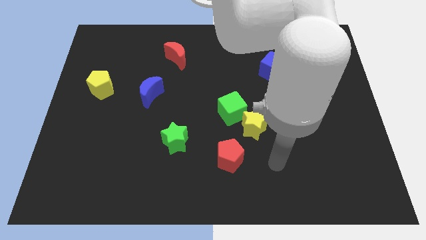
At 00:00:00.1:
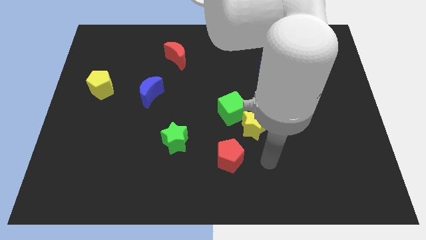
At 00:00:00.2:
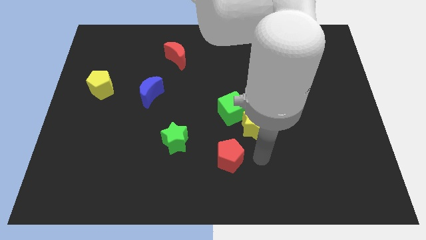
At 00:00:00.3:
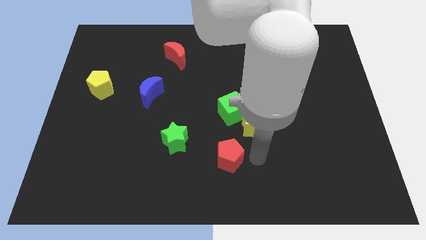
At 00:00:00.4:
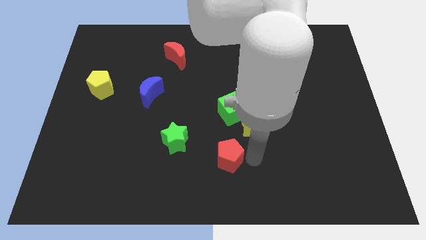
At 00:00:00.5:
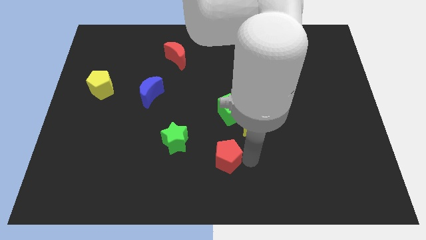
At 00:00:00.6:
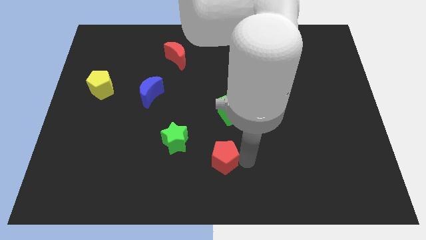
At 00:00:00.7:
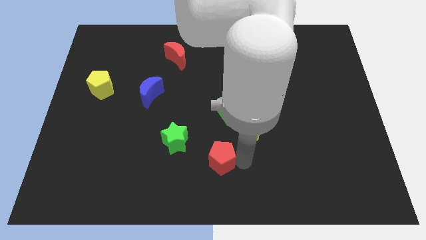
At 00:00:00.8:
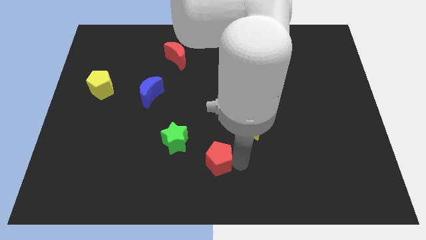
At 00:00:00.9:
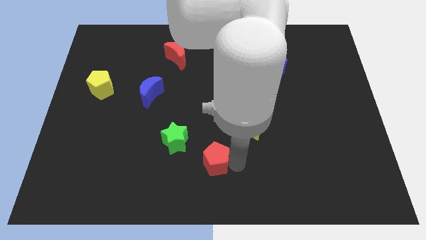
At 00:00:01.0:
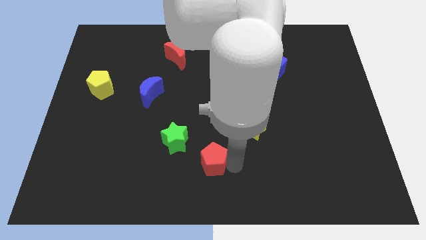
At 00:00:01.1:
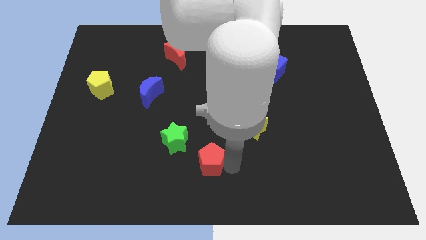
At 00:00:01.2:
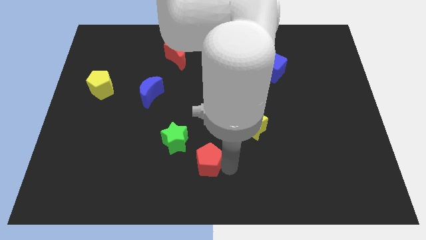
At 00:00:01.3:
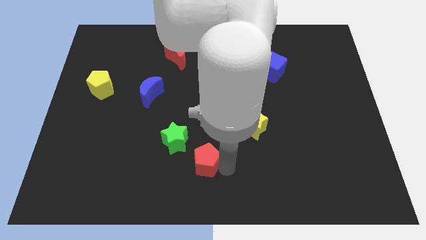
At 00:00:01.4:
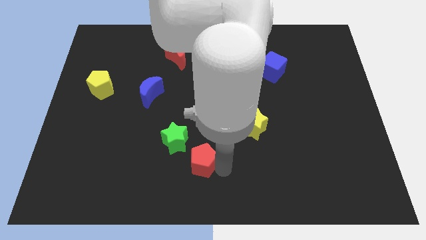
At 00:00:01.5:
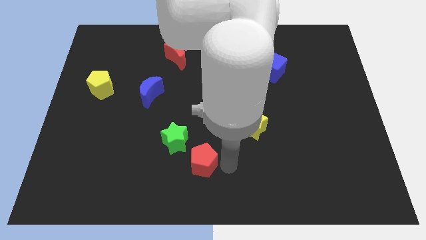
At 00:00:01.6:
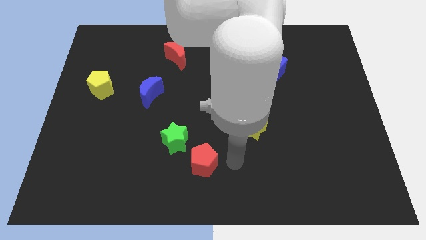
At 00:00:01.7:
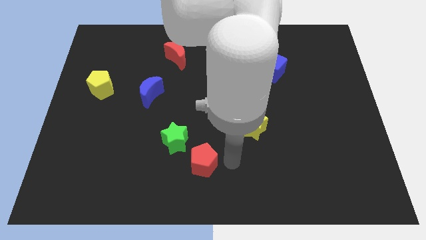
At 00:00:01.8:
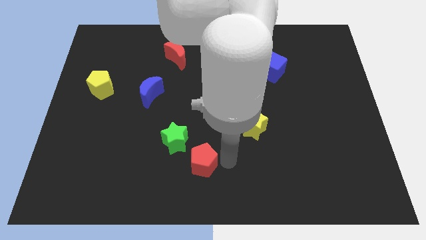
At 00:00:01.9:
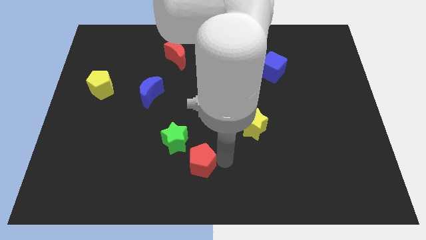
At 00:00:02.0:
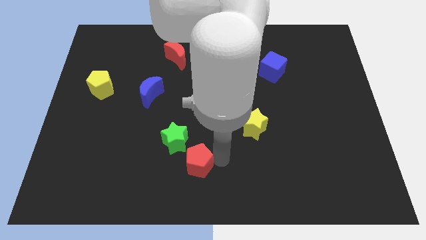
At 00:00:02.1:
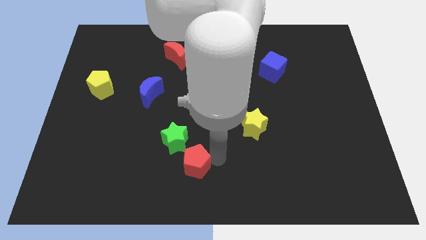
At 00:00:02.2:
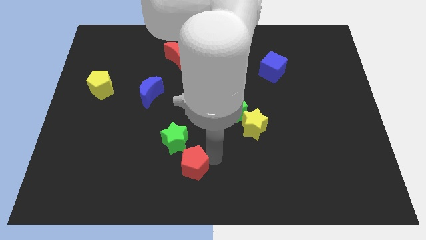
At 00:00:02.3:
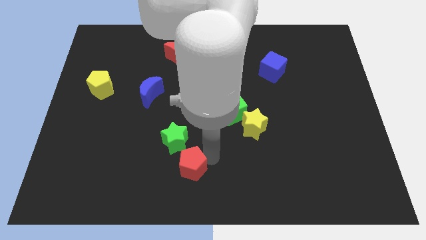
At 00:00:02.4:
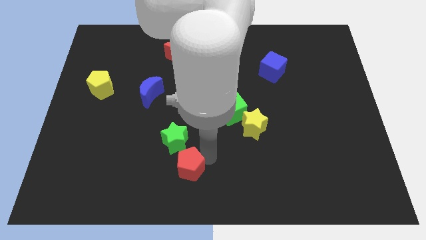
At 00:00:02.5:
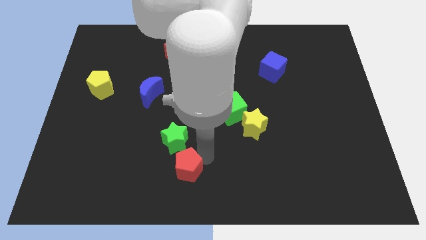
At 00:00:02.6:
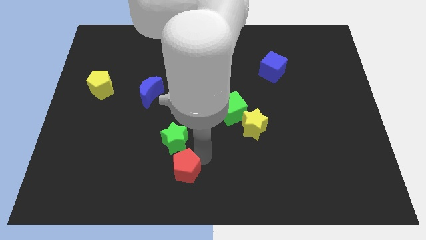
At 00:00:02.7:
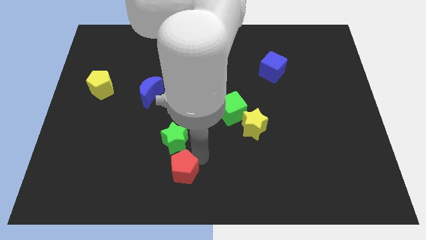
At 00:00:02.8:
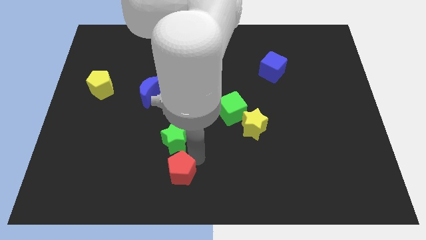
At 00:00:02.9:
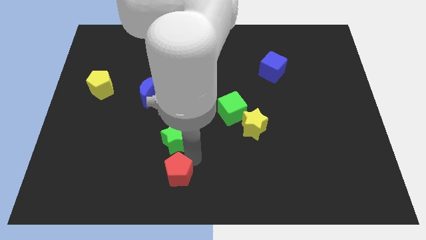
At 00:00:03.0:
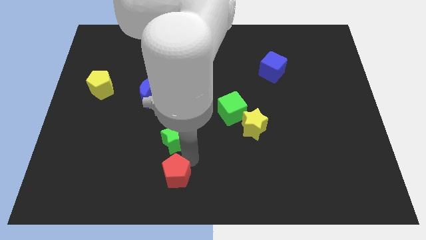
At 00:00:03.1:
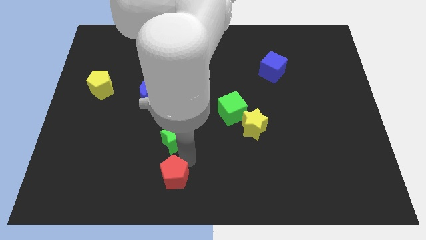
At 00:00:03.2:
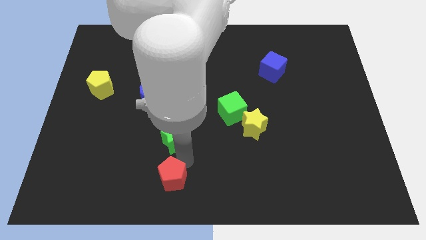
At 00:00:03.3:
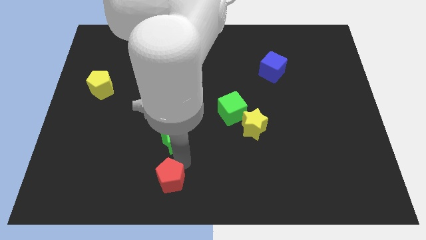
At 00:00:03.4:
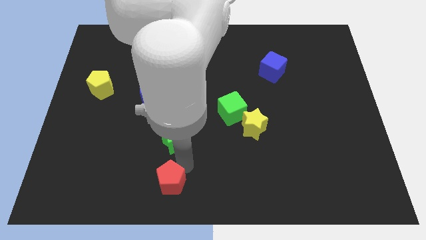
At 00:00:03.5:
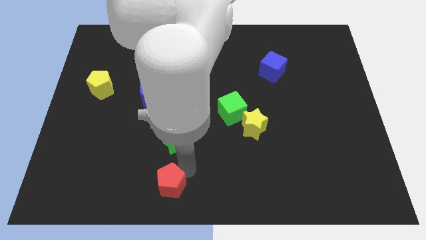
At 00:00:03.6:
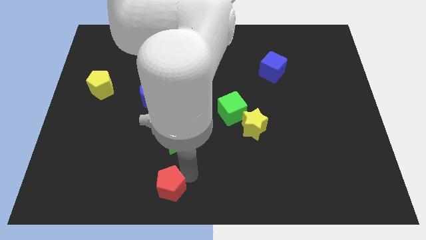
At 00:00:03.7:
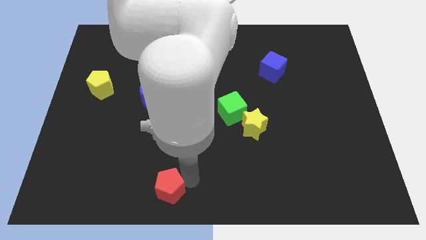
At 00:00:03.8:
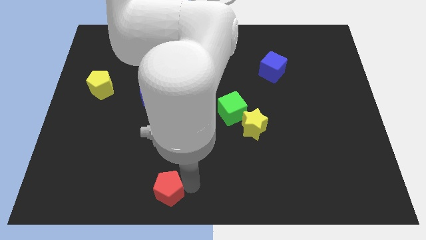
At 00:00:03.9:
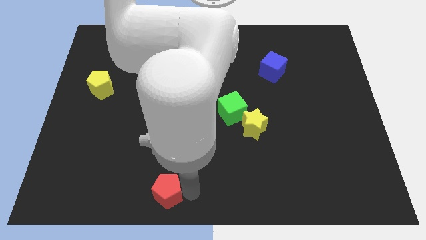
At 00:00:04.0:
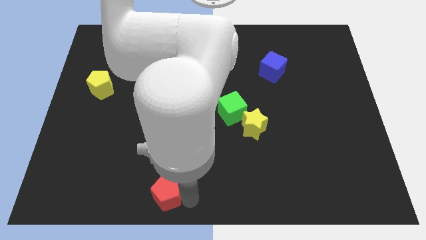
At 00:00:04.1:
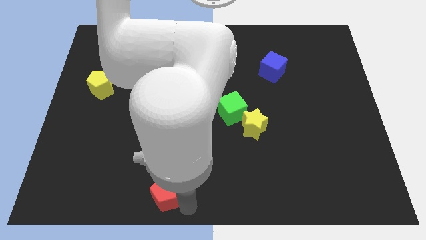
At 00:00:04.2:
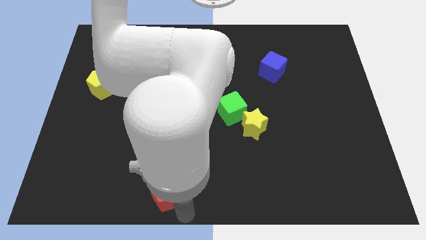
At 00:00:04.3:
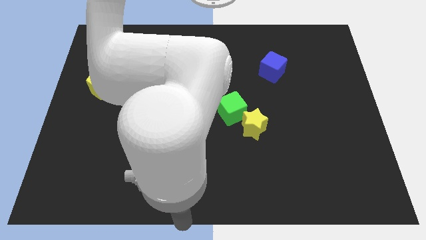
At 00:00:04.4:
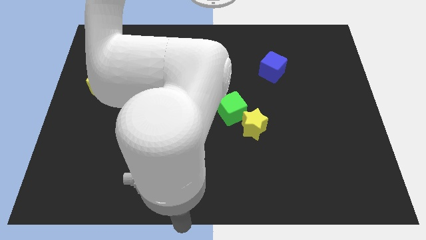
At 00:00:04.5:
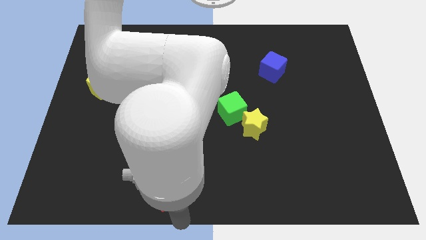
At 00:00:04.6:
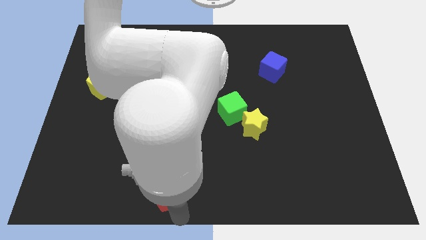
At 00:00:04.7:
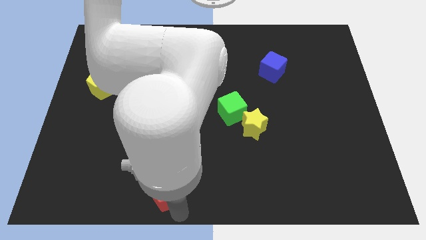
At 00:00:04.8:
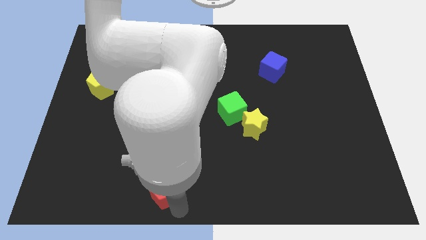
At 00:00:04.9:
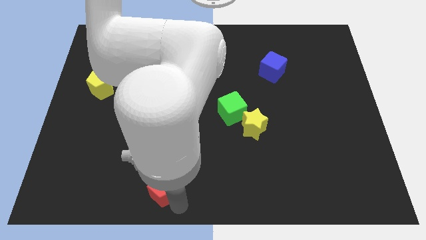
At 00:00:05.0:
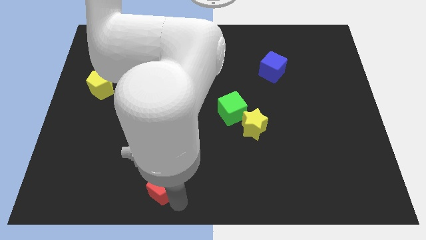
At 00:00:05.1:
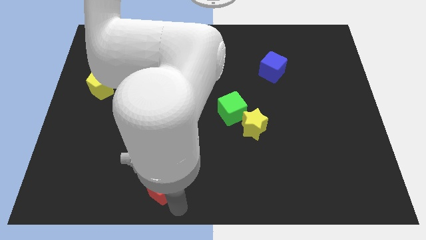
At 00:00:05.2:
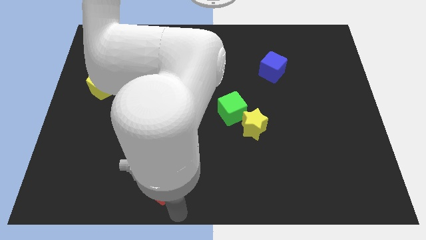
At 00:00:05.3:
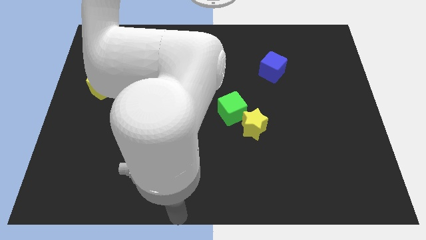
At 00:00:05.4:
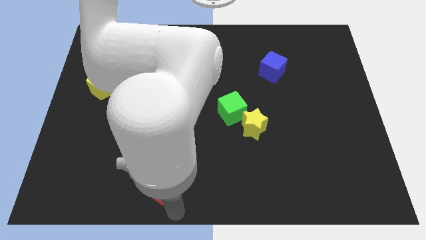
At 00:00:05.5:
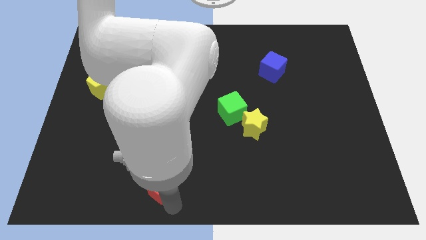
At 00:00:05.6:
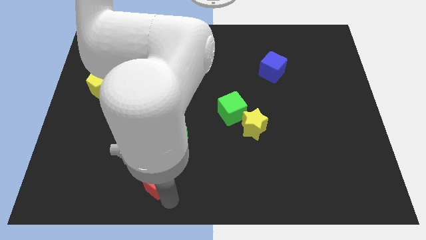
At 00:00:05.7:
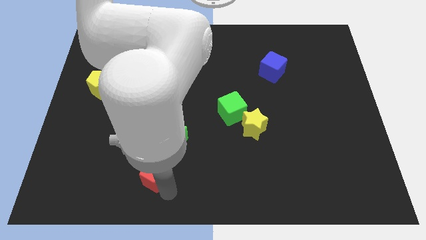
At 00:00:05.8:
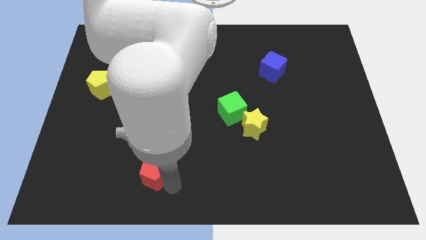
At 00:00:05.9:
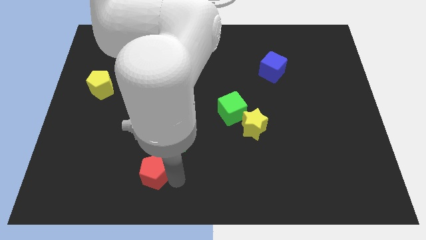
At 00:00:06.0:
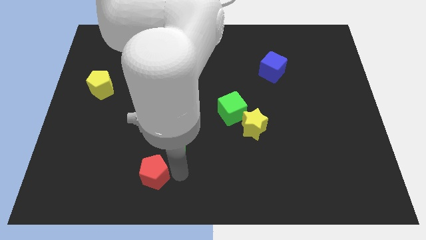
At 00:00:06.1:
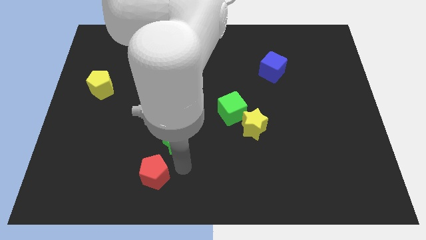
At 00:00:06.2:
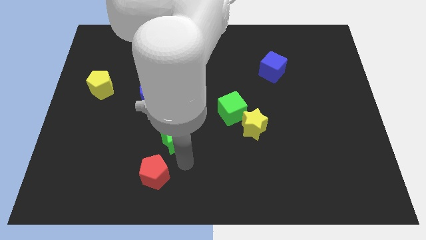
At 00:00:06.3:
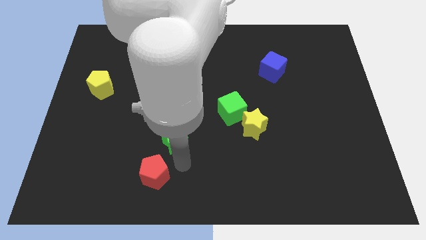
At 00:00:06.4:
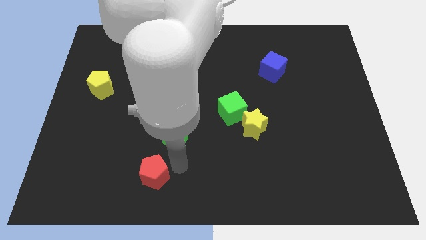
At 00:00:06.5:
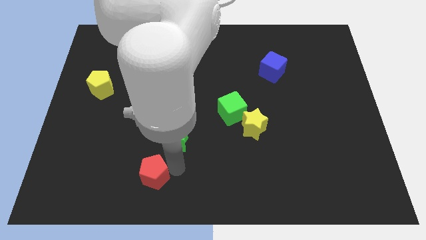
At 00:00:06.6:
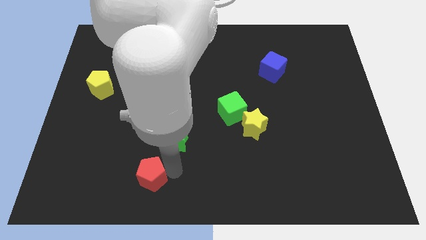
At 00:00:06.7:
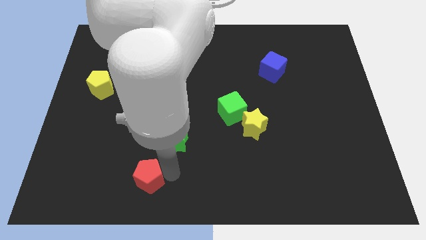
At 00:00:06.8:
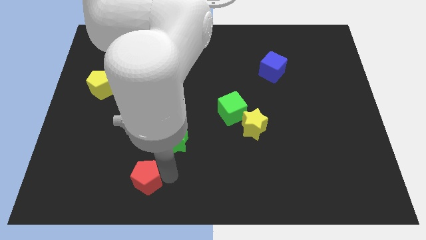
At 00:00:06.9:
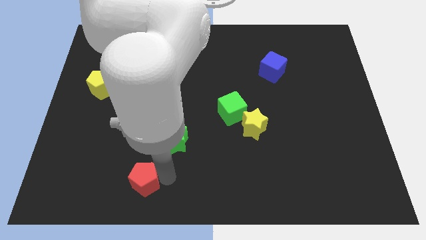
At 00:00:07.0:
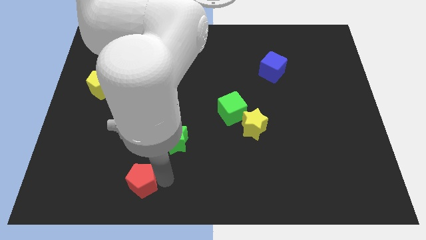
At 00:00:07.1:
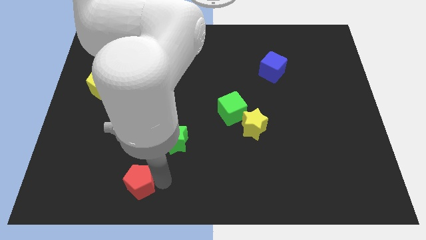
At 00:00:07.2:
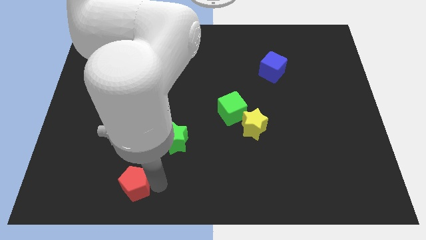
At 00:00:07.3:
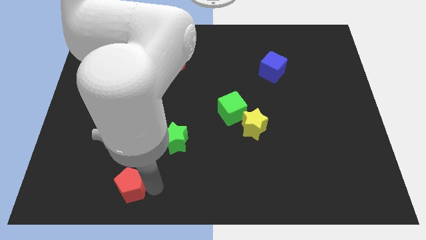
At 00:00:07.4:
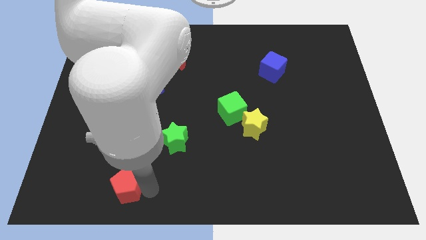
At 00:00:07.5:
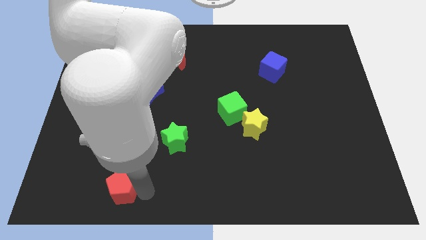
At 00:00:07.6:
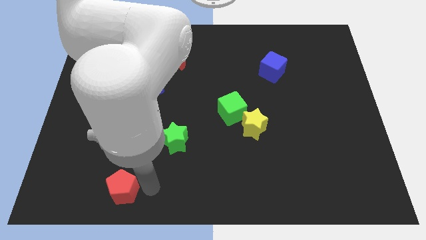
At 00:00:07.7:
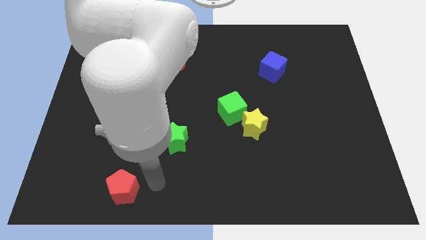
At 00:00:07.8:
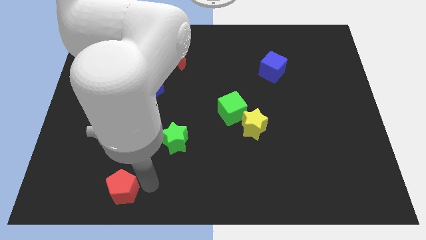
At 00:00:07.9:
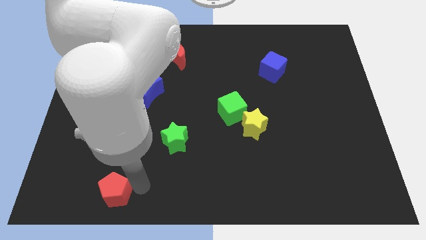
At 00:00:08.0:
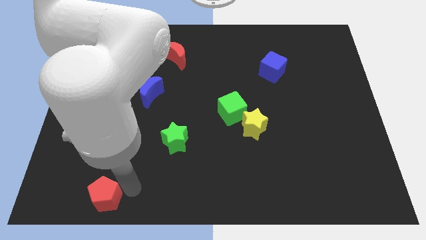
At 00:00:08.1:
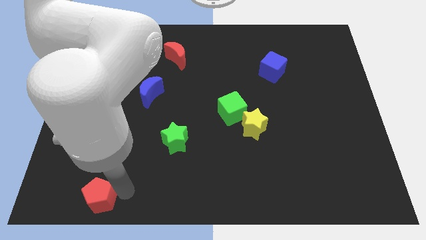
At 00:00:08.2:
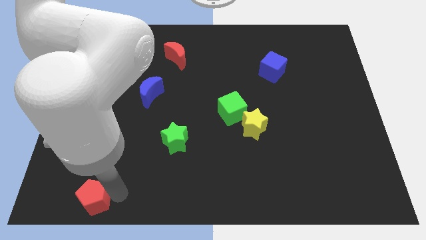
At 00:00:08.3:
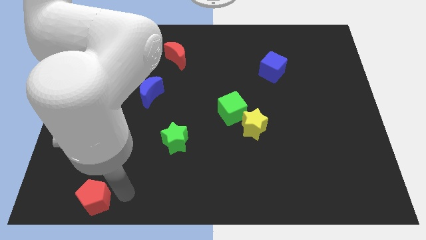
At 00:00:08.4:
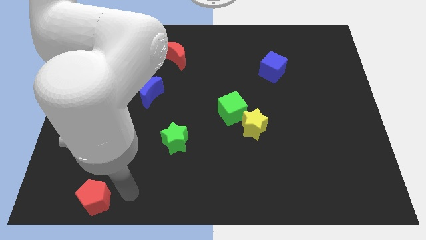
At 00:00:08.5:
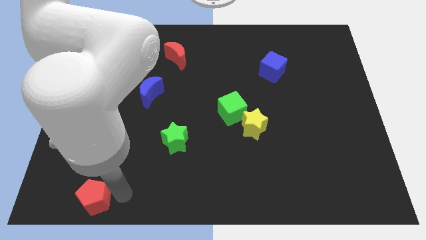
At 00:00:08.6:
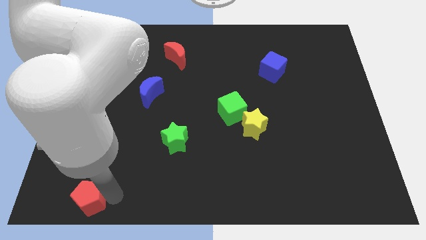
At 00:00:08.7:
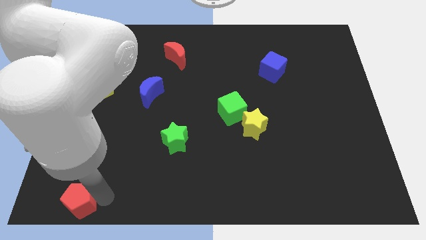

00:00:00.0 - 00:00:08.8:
push the red pentagon to the bottom left
